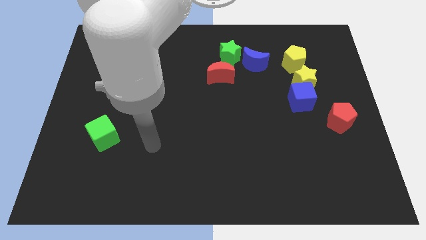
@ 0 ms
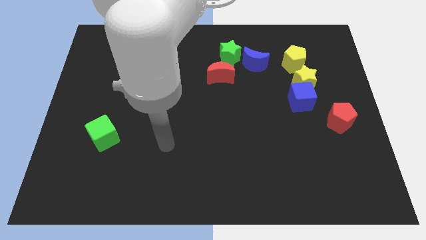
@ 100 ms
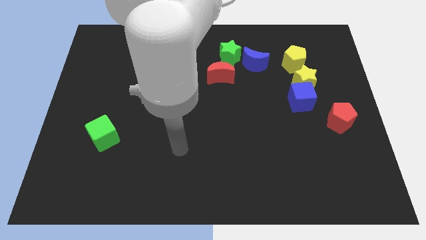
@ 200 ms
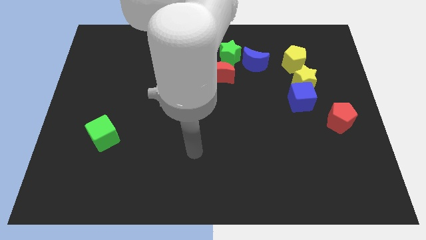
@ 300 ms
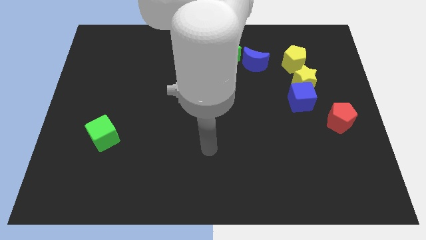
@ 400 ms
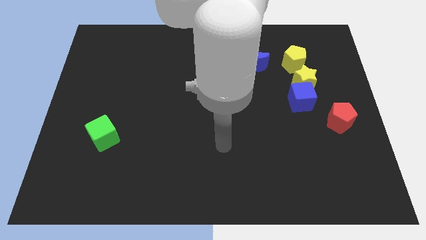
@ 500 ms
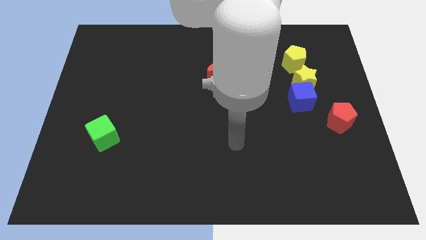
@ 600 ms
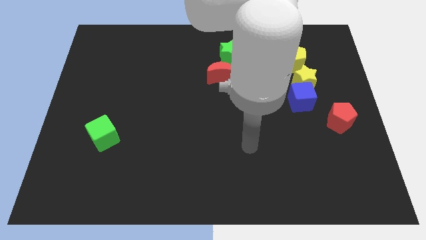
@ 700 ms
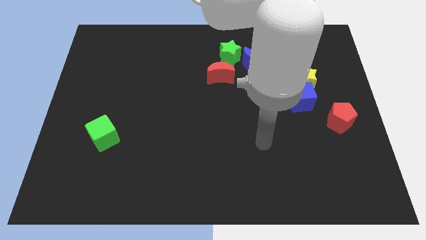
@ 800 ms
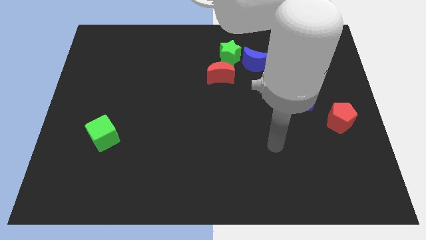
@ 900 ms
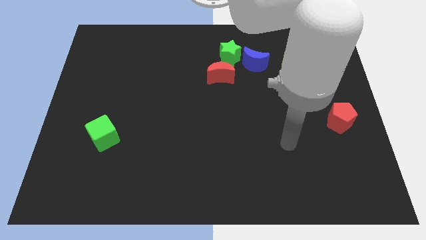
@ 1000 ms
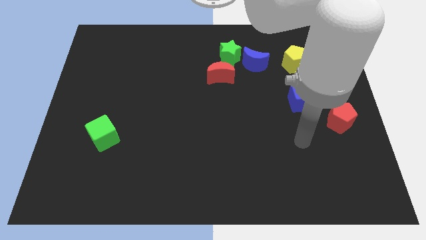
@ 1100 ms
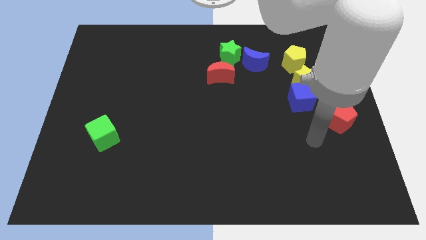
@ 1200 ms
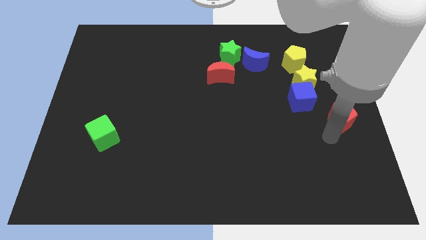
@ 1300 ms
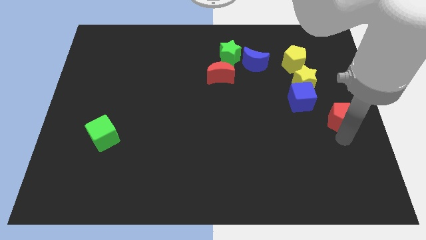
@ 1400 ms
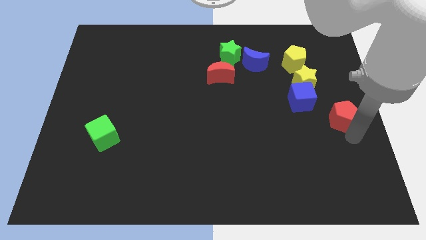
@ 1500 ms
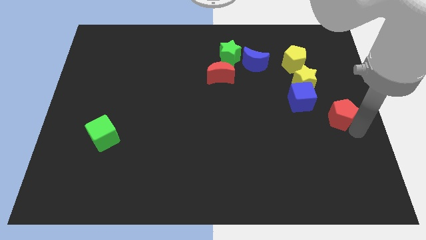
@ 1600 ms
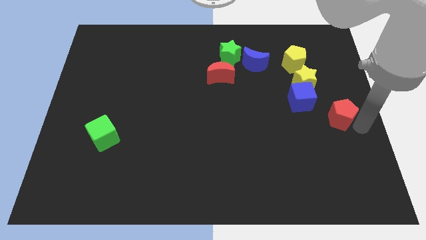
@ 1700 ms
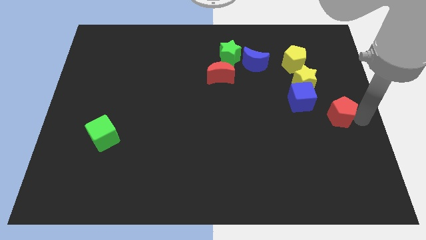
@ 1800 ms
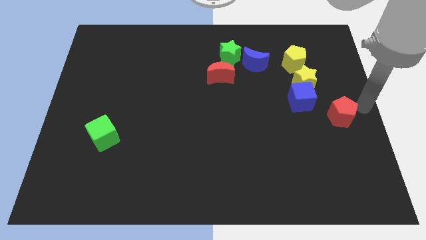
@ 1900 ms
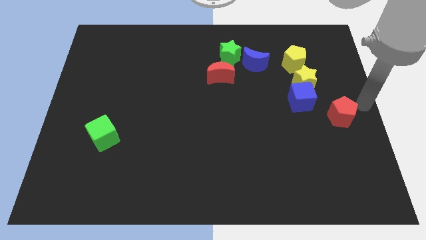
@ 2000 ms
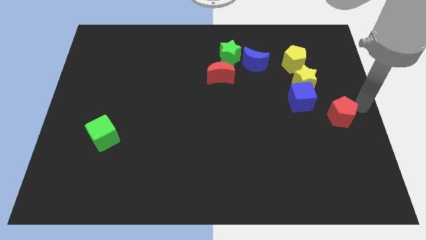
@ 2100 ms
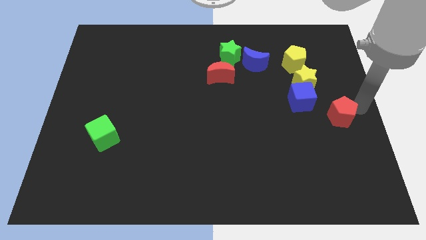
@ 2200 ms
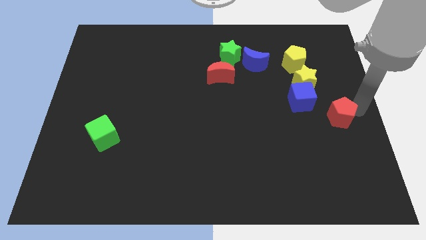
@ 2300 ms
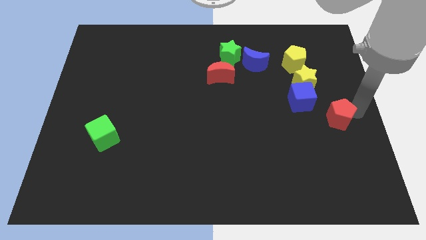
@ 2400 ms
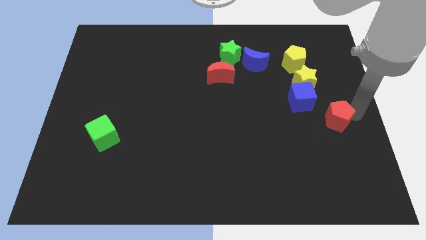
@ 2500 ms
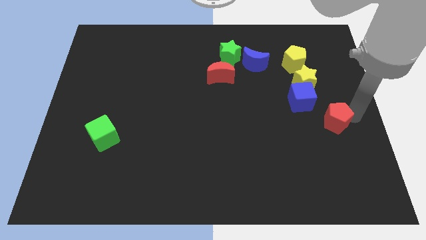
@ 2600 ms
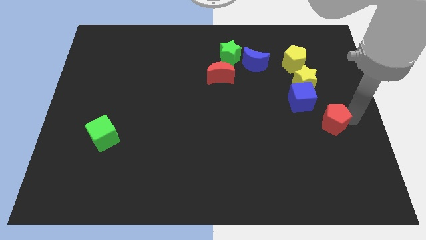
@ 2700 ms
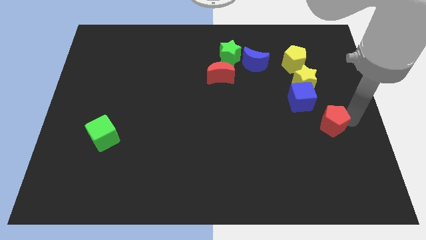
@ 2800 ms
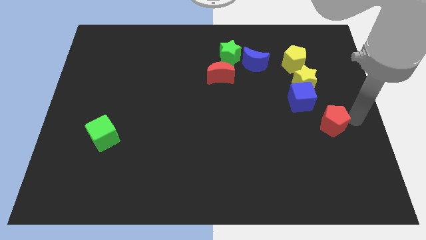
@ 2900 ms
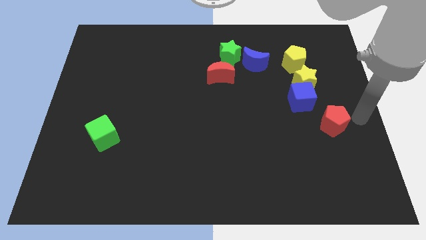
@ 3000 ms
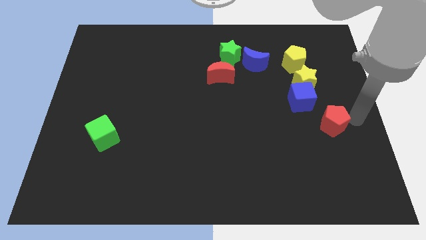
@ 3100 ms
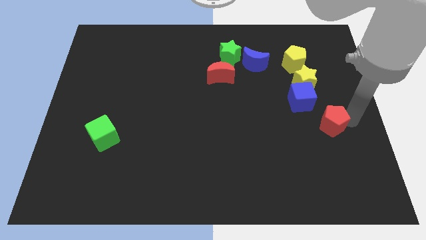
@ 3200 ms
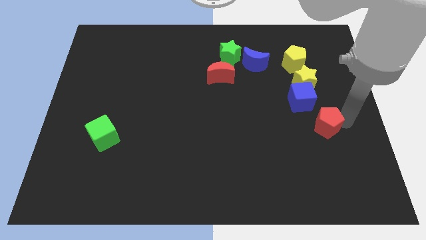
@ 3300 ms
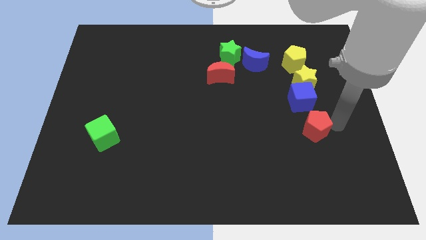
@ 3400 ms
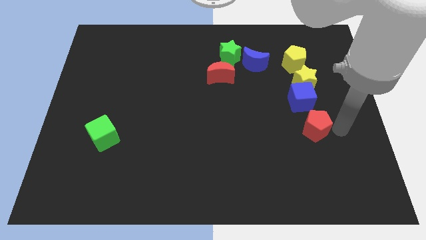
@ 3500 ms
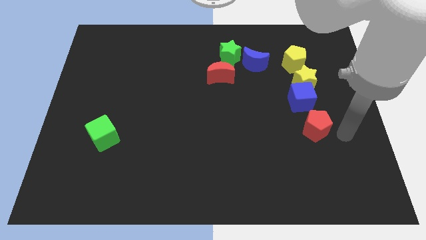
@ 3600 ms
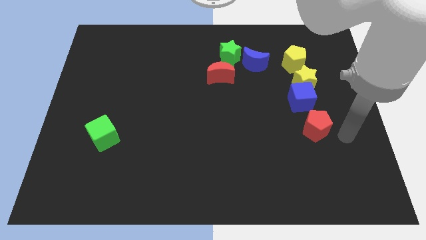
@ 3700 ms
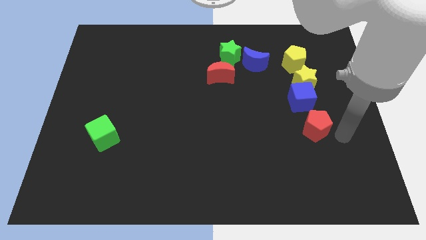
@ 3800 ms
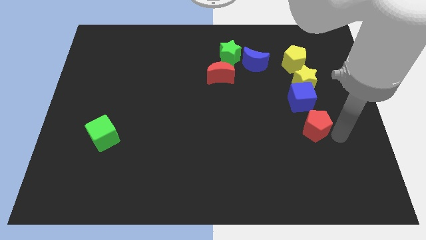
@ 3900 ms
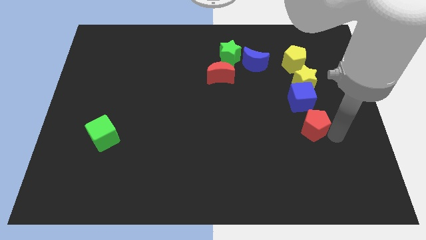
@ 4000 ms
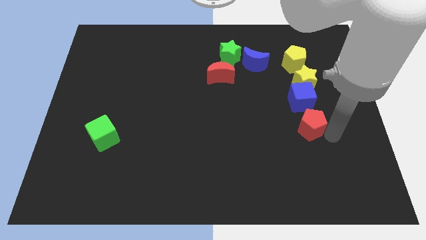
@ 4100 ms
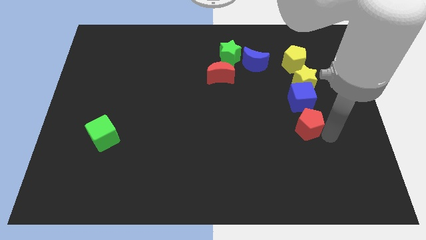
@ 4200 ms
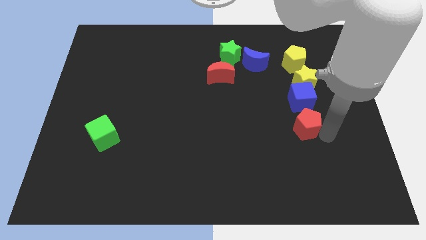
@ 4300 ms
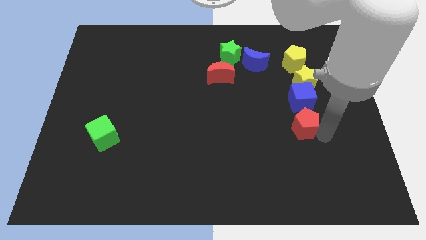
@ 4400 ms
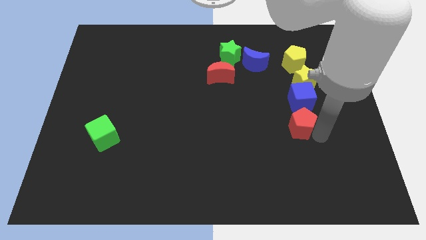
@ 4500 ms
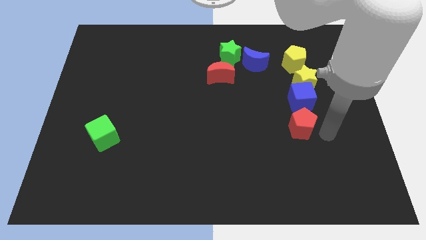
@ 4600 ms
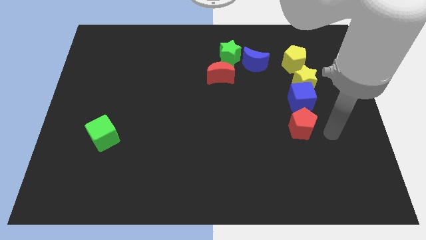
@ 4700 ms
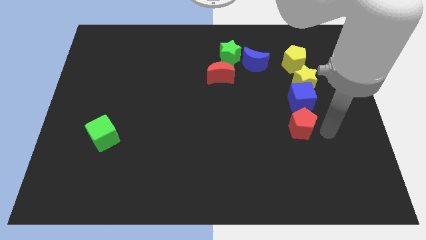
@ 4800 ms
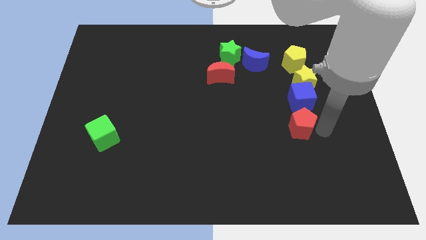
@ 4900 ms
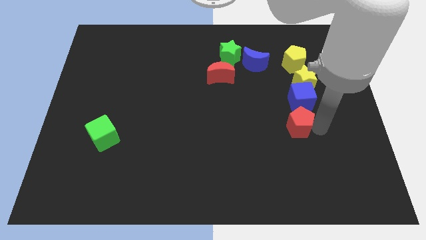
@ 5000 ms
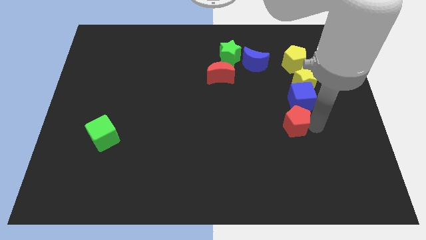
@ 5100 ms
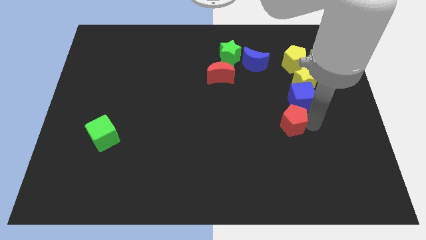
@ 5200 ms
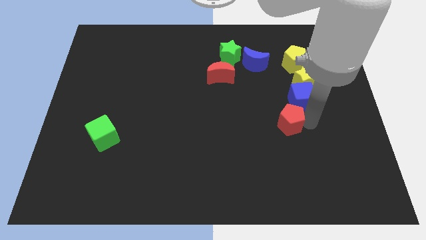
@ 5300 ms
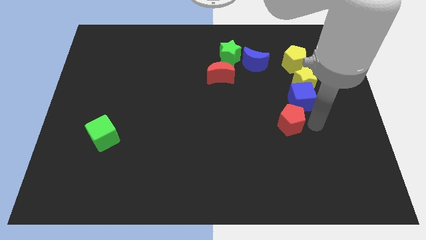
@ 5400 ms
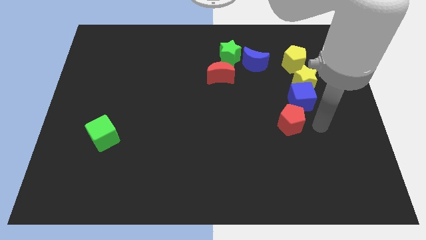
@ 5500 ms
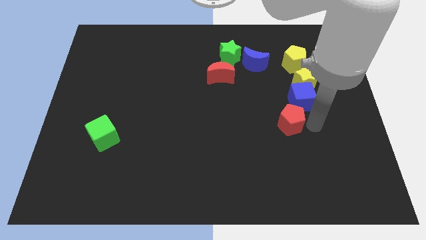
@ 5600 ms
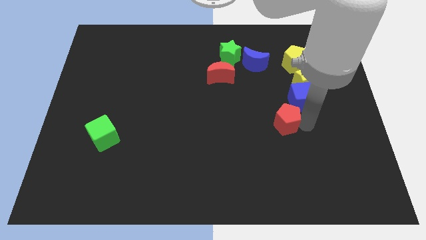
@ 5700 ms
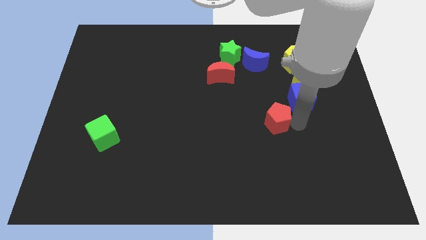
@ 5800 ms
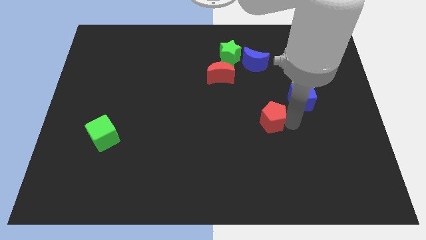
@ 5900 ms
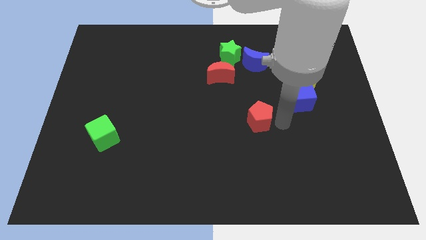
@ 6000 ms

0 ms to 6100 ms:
push the red pentagon to the middle

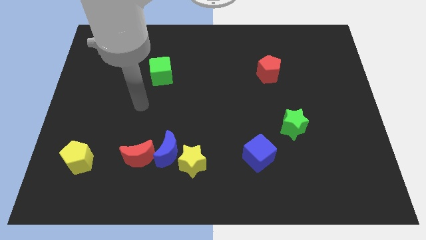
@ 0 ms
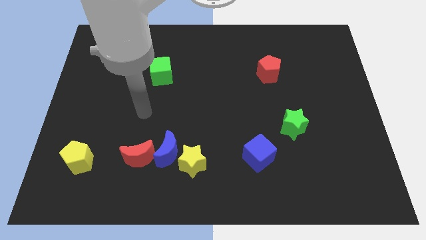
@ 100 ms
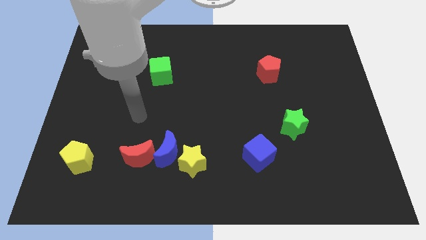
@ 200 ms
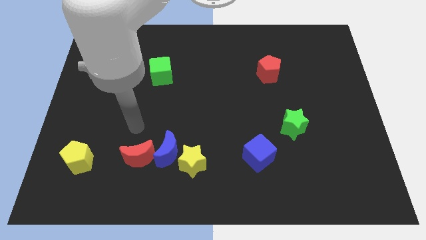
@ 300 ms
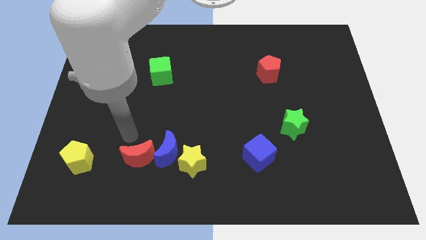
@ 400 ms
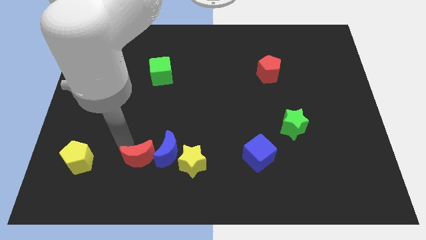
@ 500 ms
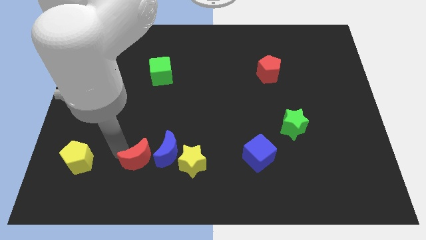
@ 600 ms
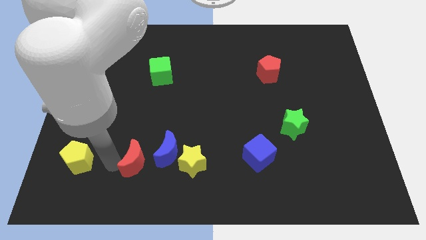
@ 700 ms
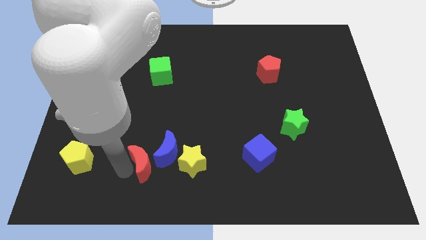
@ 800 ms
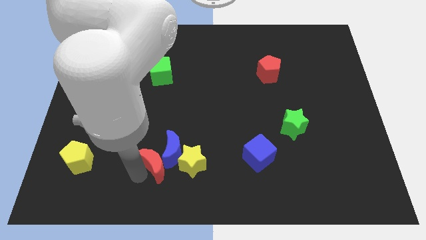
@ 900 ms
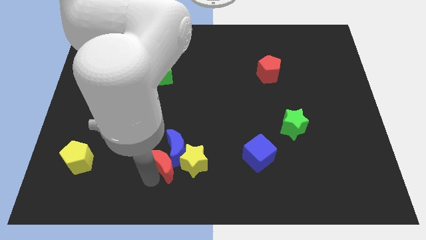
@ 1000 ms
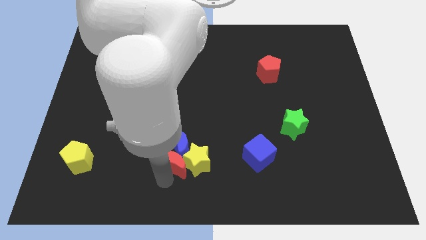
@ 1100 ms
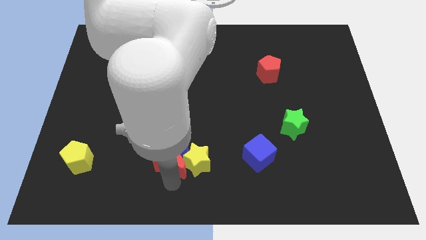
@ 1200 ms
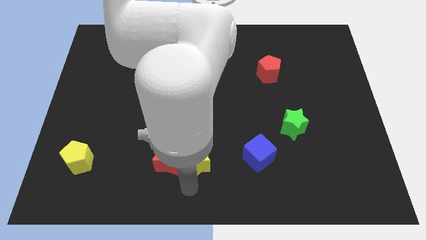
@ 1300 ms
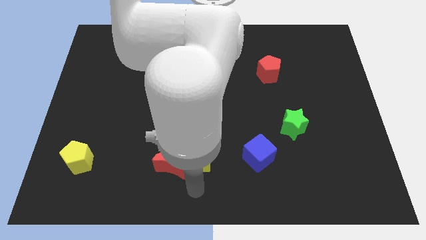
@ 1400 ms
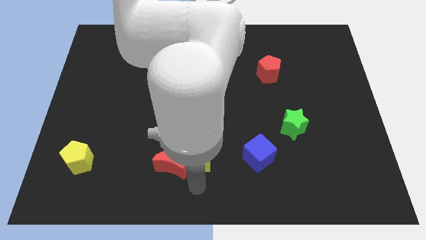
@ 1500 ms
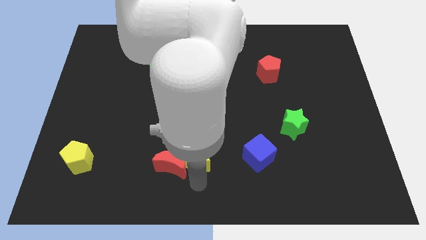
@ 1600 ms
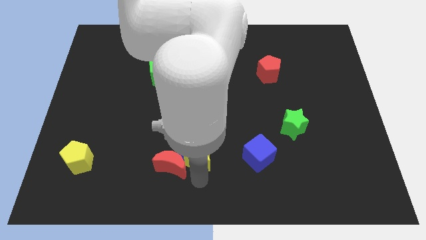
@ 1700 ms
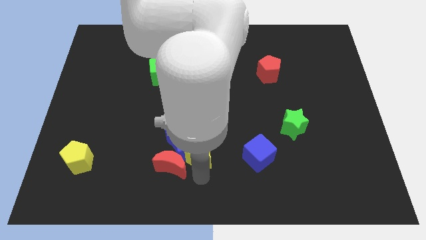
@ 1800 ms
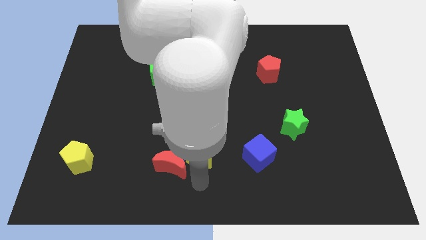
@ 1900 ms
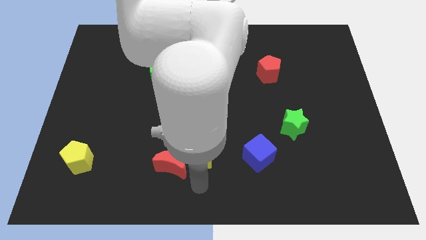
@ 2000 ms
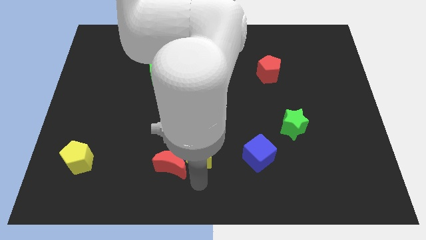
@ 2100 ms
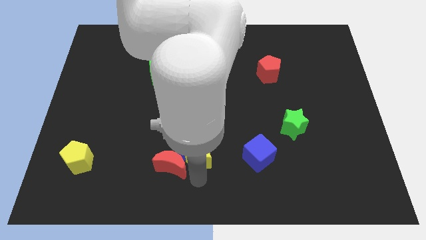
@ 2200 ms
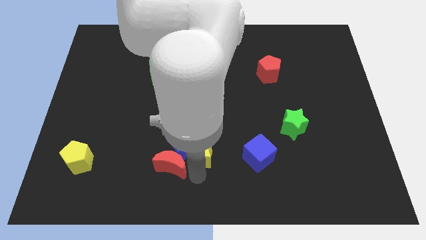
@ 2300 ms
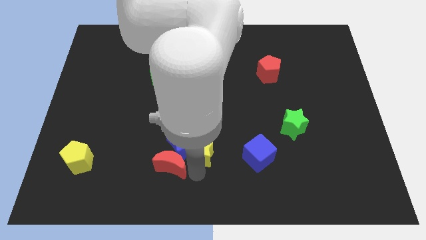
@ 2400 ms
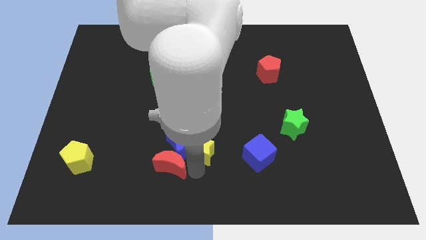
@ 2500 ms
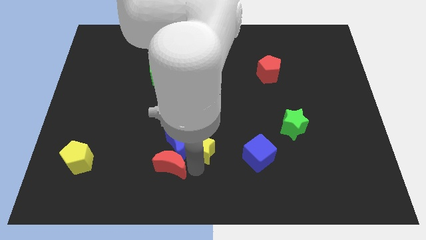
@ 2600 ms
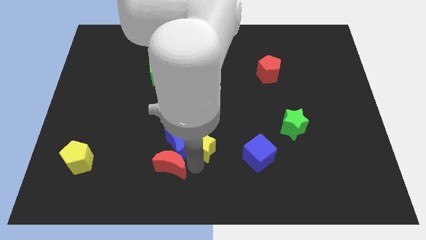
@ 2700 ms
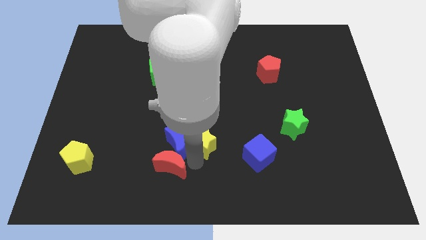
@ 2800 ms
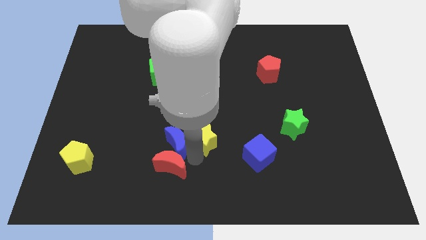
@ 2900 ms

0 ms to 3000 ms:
put the yellow star to the middle of the board
